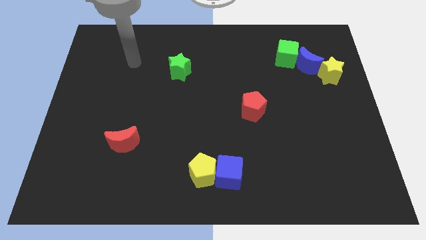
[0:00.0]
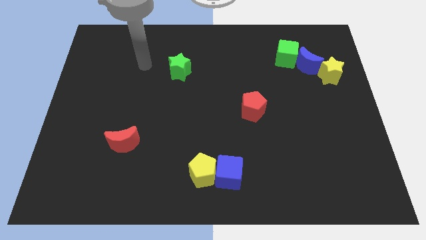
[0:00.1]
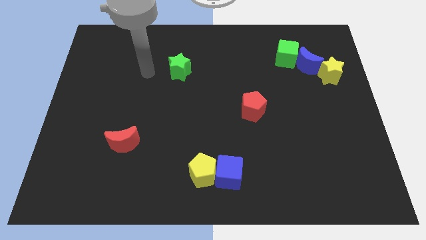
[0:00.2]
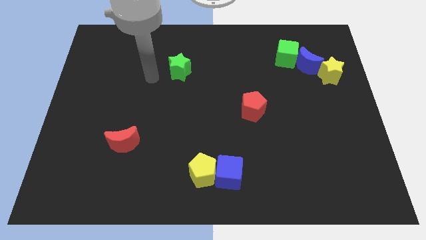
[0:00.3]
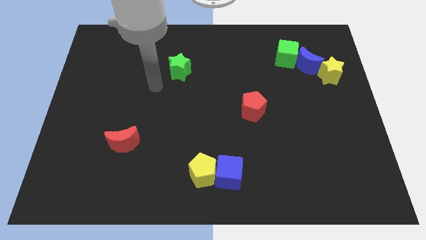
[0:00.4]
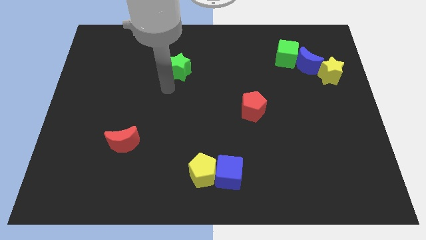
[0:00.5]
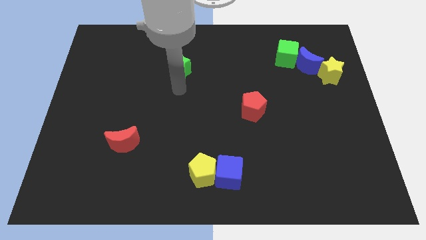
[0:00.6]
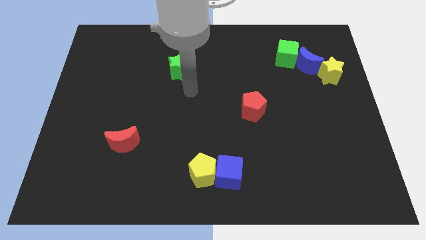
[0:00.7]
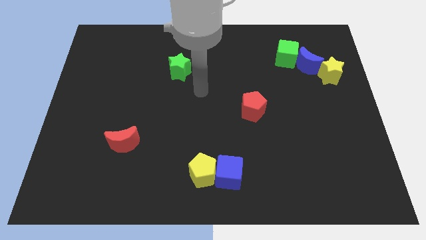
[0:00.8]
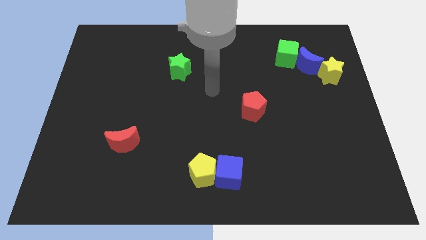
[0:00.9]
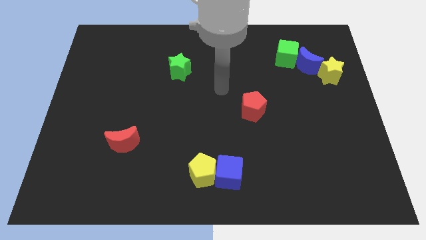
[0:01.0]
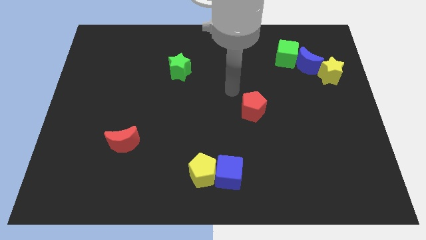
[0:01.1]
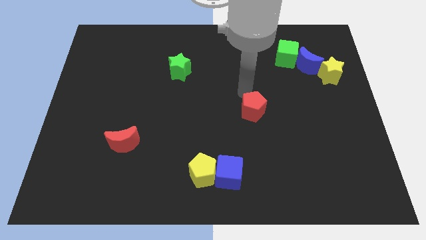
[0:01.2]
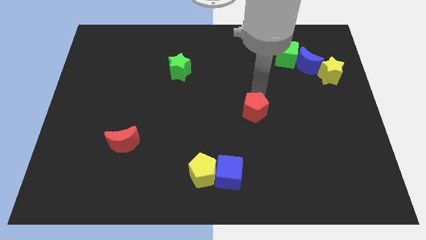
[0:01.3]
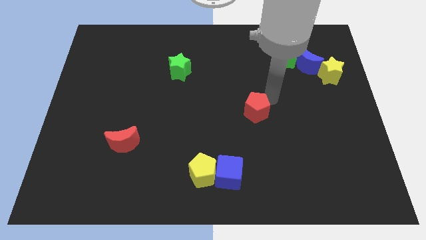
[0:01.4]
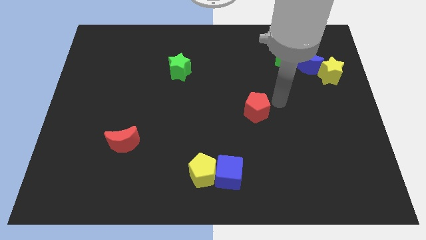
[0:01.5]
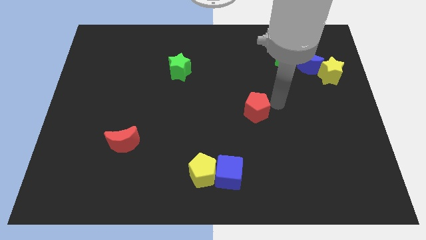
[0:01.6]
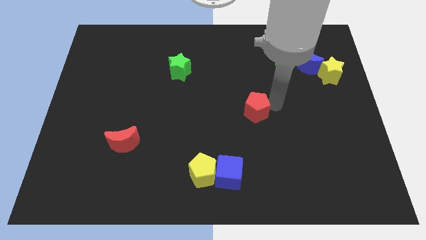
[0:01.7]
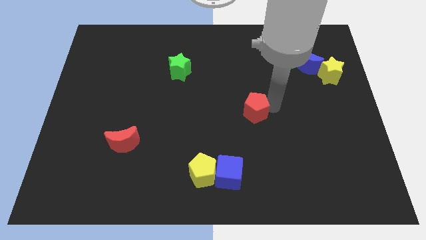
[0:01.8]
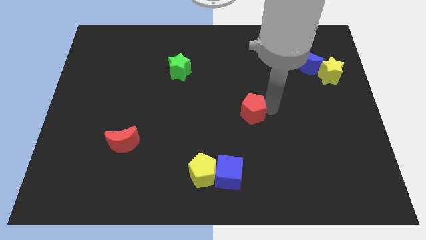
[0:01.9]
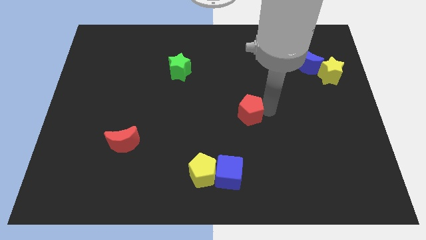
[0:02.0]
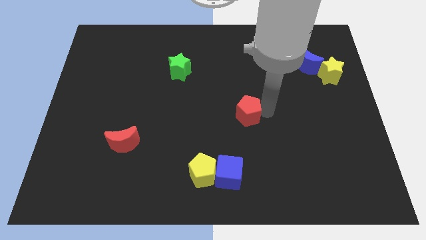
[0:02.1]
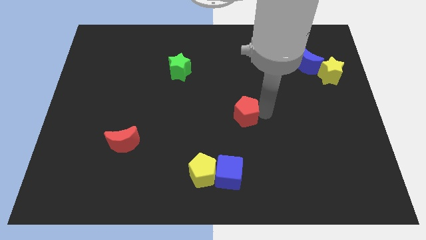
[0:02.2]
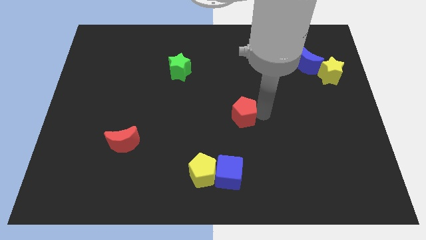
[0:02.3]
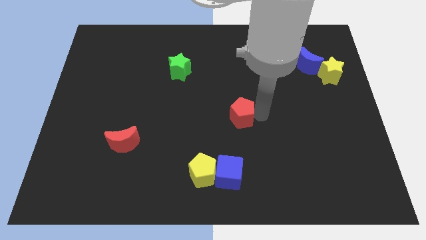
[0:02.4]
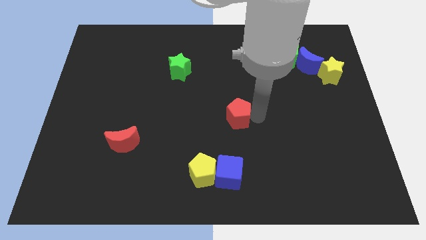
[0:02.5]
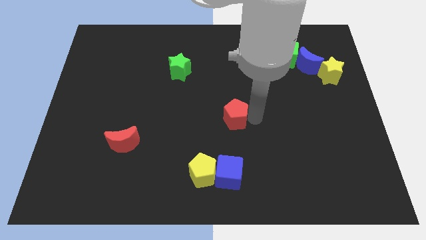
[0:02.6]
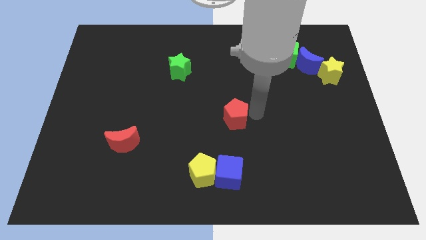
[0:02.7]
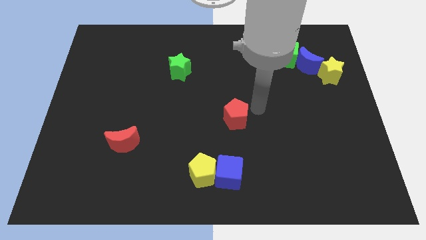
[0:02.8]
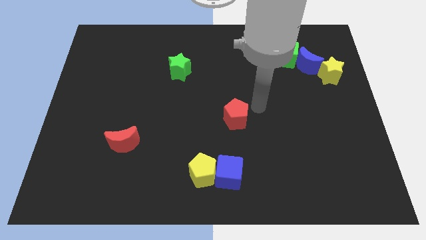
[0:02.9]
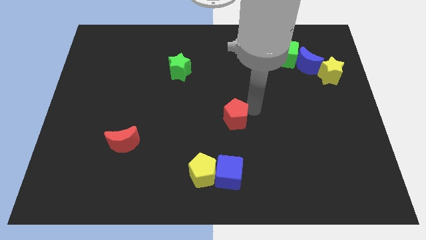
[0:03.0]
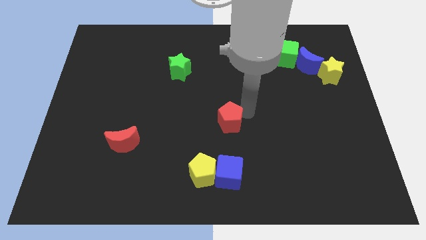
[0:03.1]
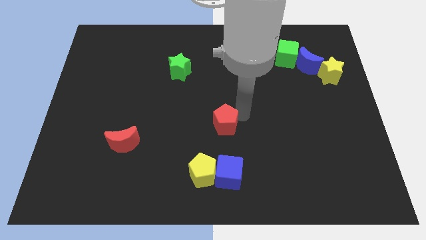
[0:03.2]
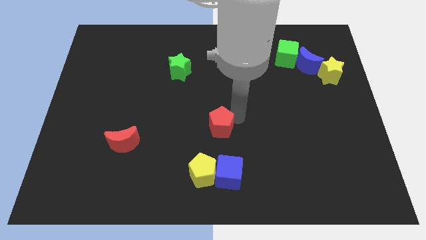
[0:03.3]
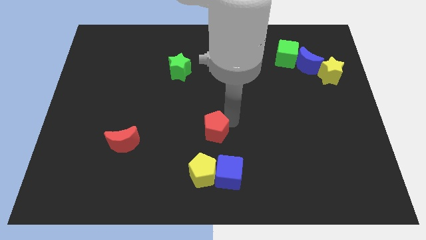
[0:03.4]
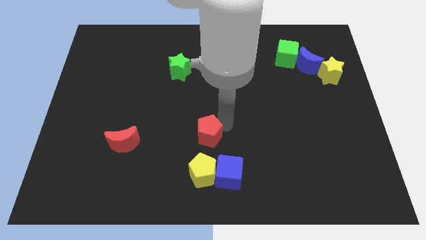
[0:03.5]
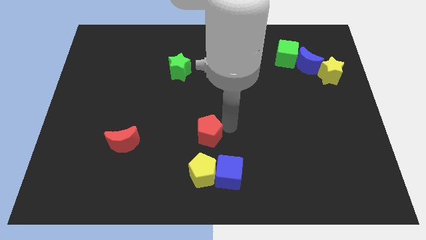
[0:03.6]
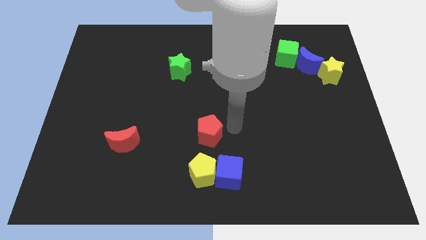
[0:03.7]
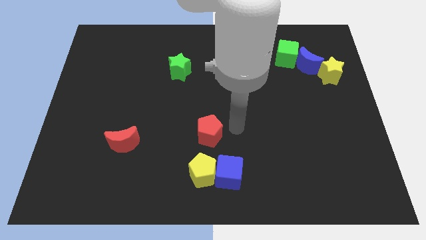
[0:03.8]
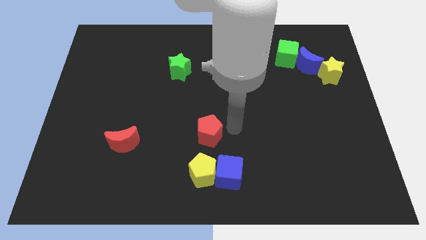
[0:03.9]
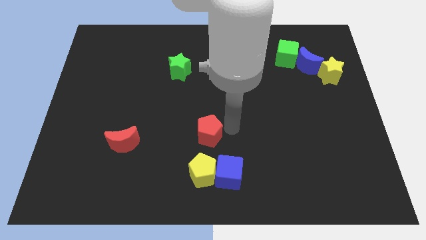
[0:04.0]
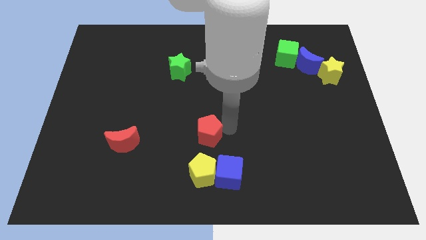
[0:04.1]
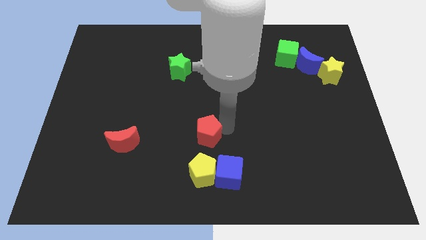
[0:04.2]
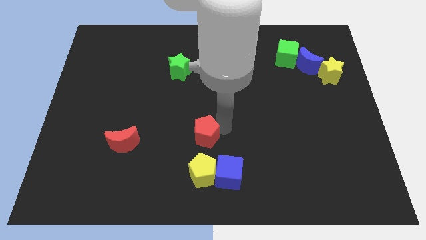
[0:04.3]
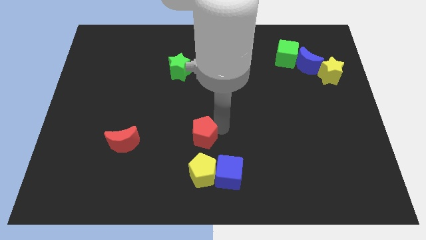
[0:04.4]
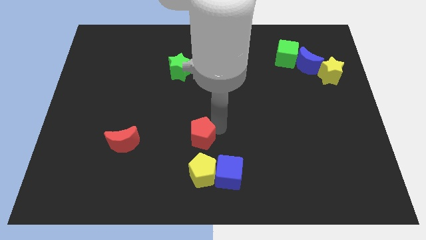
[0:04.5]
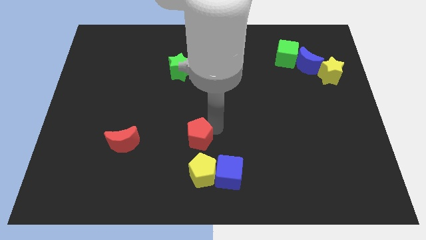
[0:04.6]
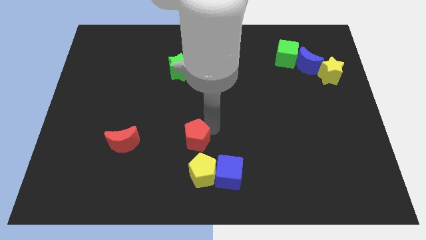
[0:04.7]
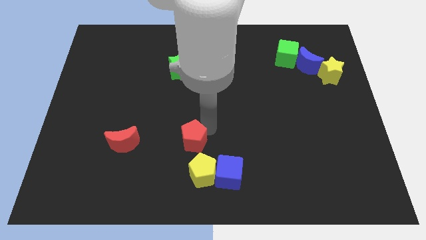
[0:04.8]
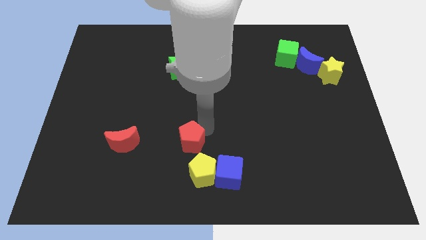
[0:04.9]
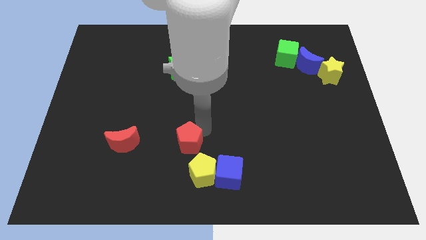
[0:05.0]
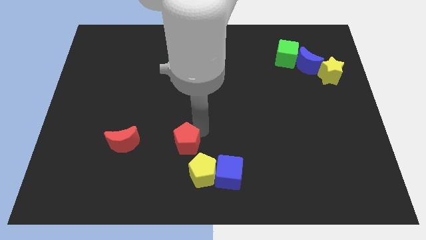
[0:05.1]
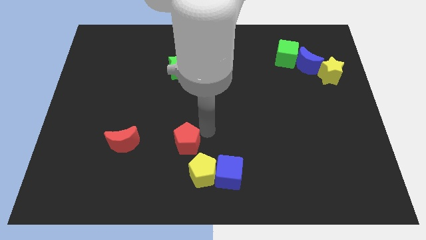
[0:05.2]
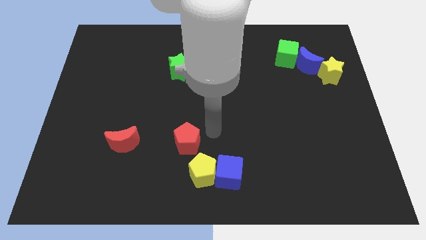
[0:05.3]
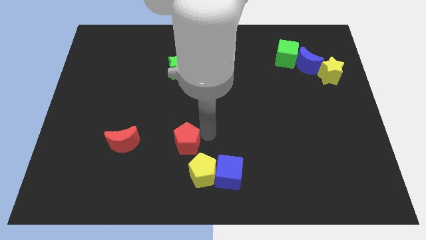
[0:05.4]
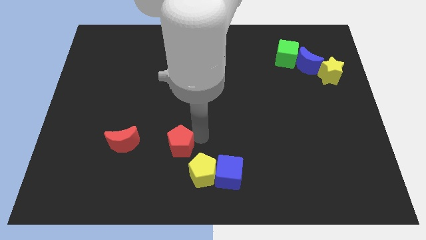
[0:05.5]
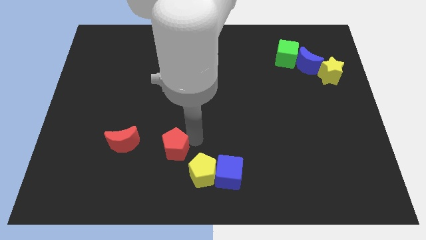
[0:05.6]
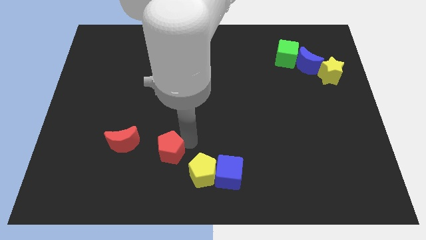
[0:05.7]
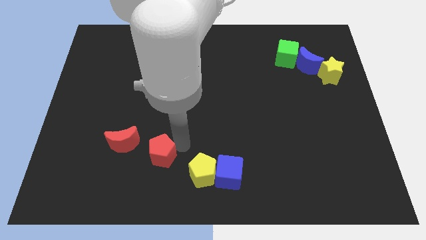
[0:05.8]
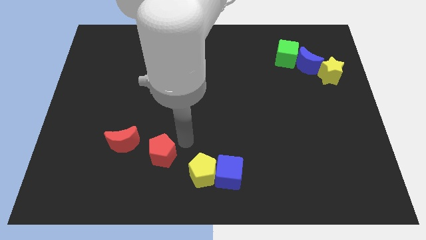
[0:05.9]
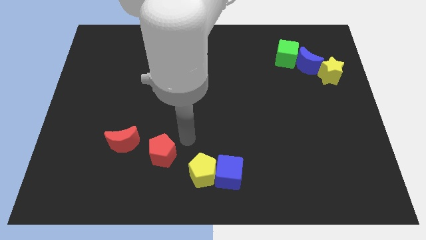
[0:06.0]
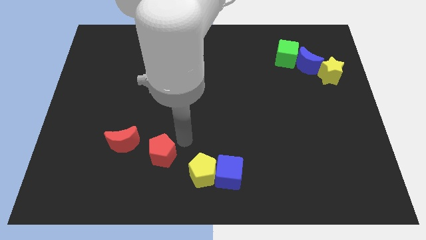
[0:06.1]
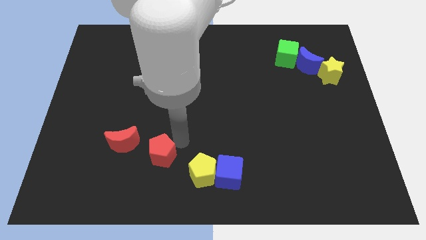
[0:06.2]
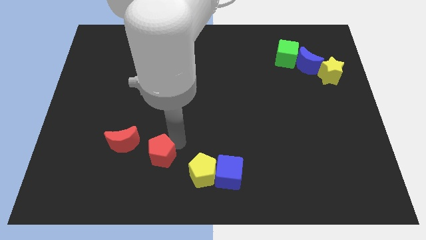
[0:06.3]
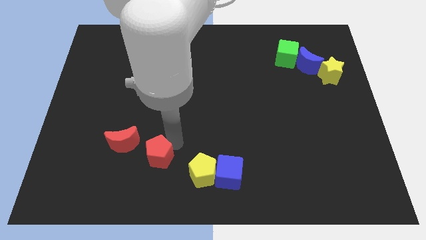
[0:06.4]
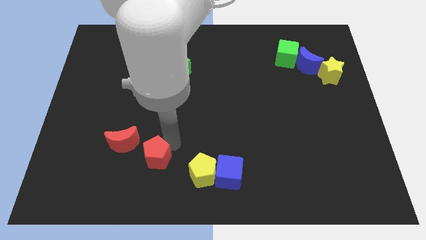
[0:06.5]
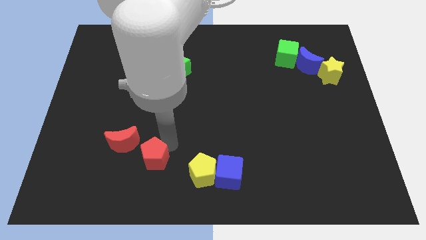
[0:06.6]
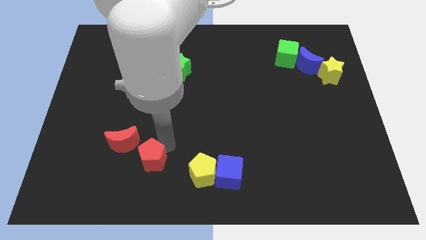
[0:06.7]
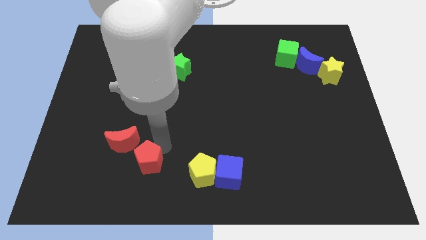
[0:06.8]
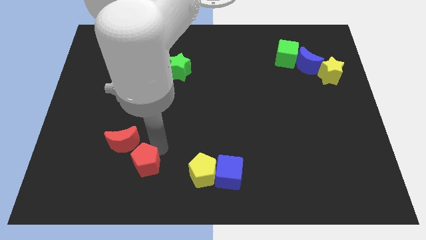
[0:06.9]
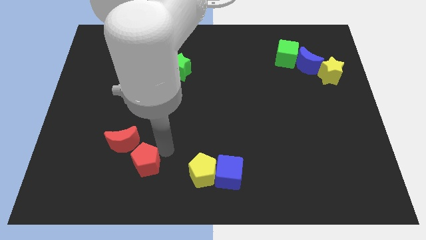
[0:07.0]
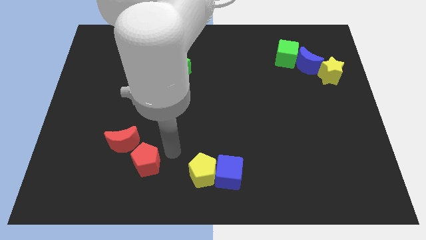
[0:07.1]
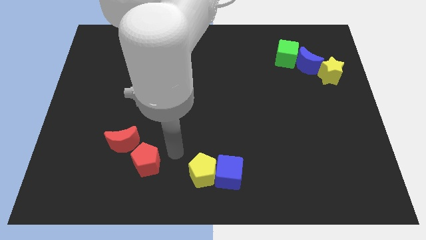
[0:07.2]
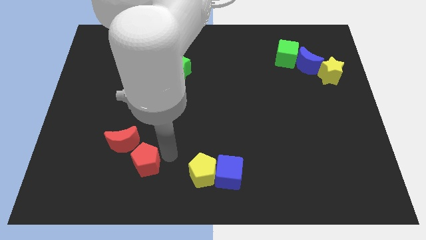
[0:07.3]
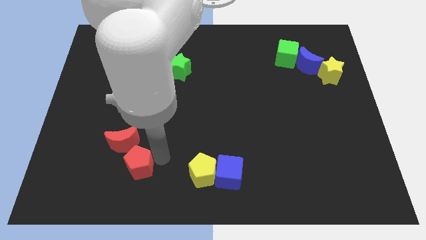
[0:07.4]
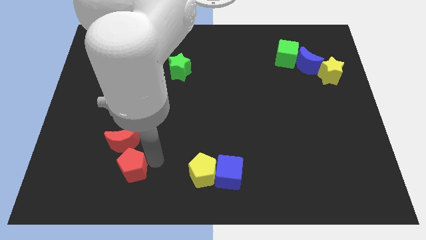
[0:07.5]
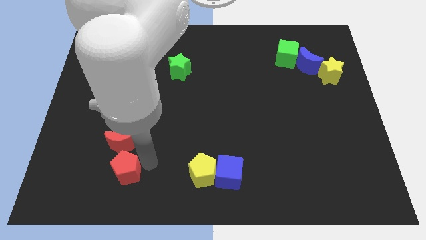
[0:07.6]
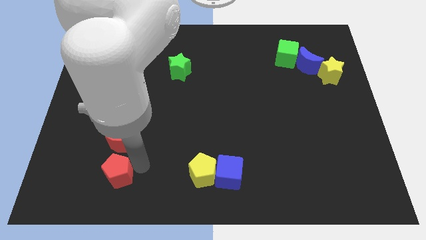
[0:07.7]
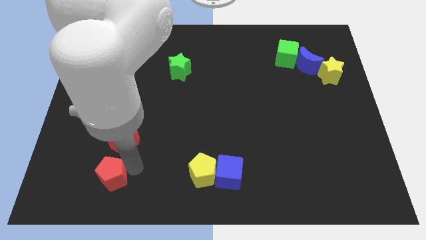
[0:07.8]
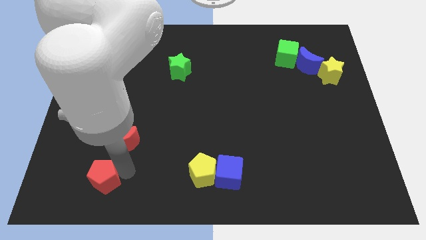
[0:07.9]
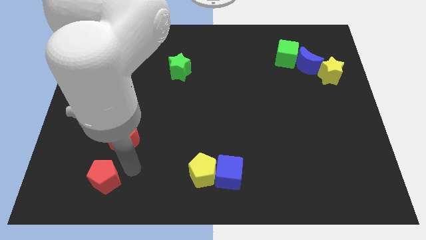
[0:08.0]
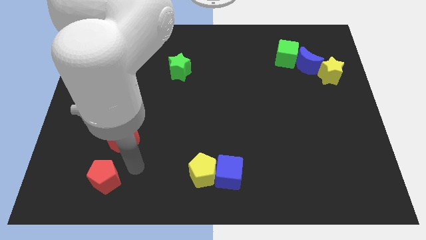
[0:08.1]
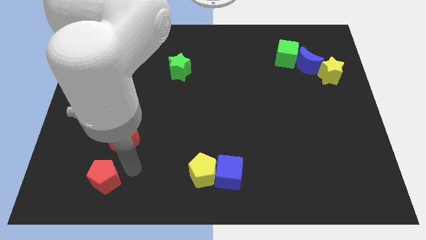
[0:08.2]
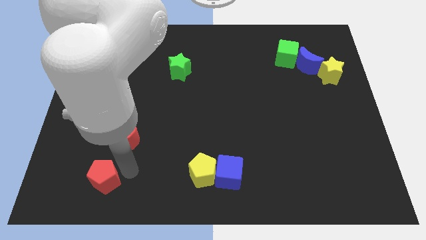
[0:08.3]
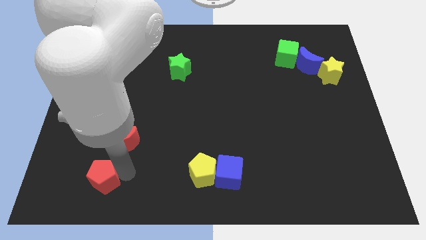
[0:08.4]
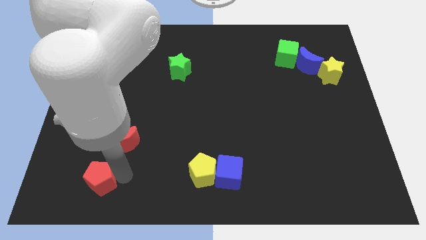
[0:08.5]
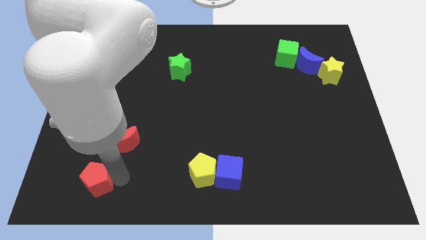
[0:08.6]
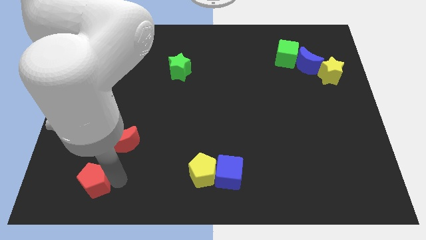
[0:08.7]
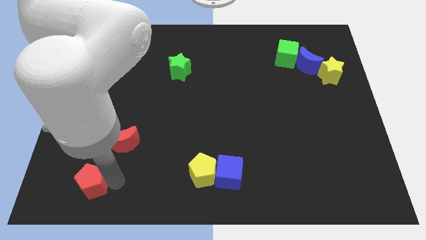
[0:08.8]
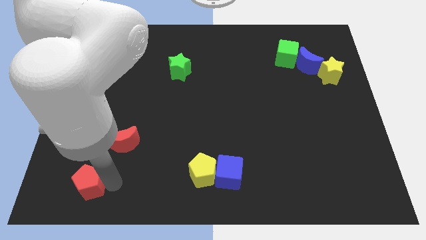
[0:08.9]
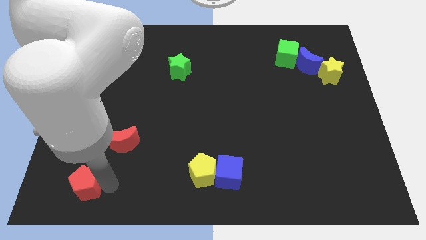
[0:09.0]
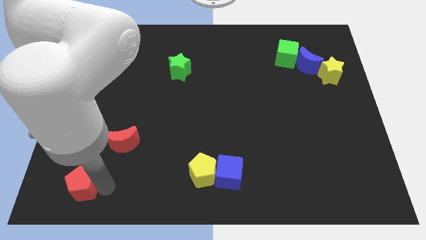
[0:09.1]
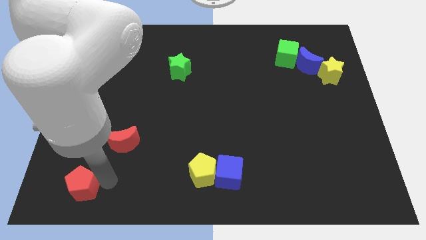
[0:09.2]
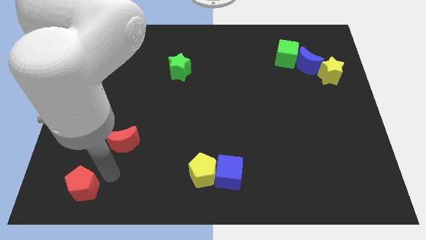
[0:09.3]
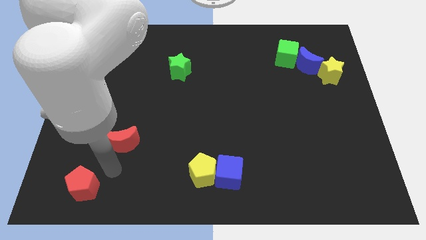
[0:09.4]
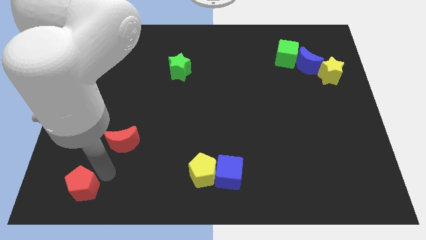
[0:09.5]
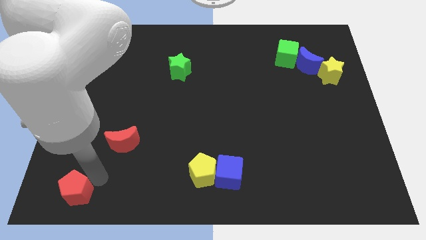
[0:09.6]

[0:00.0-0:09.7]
move the red pentagon to the lower left corner
